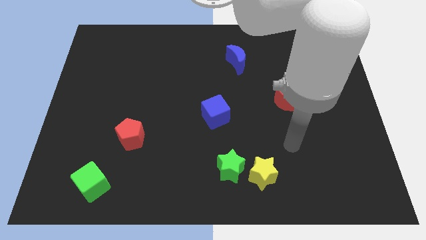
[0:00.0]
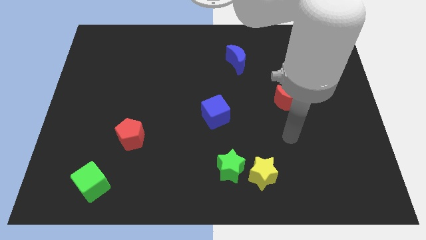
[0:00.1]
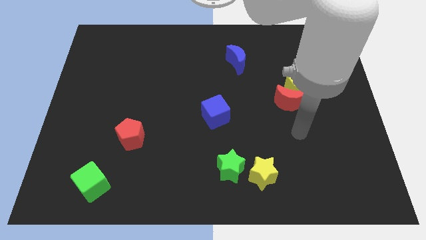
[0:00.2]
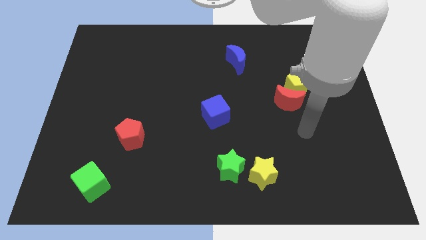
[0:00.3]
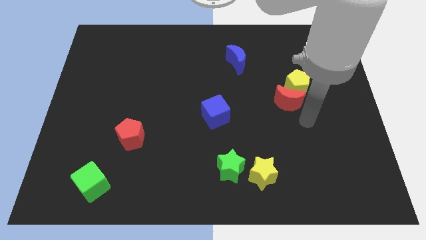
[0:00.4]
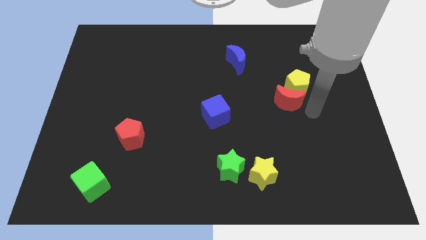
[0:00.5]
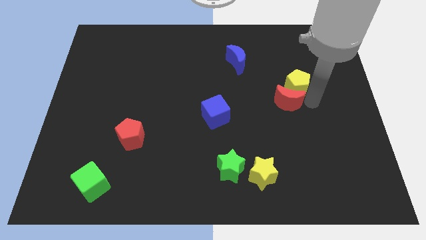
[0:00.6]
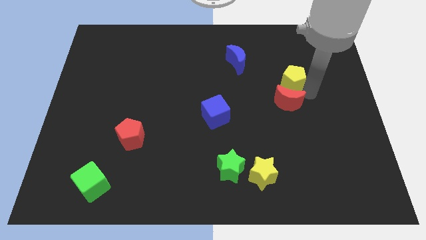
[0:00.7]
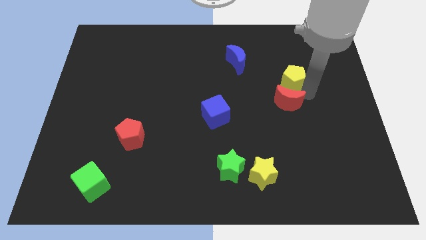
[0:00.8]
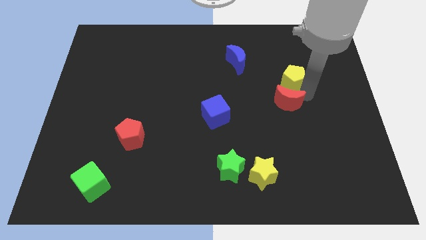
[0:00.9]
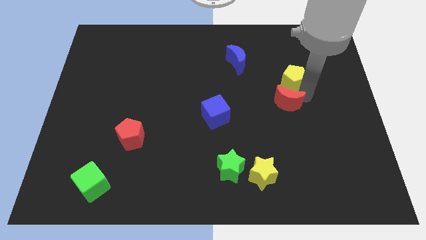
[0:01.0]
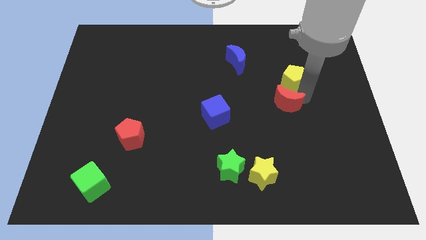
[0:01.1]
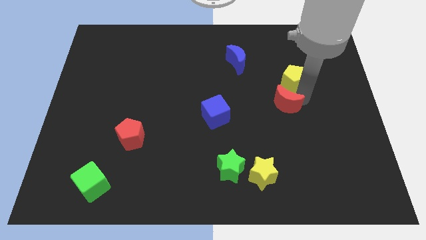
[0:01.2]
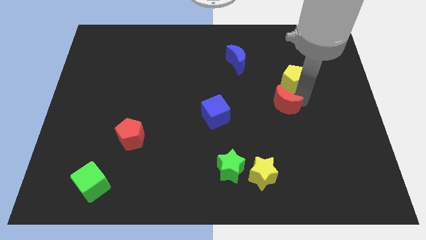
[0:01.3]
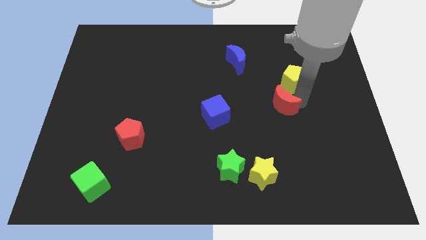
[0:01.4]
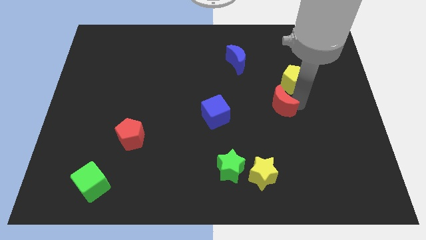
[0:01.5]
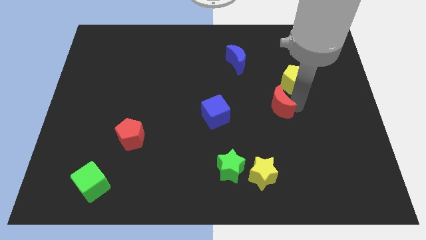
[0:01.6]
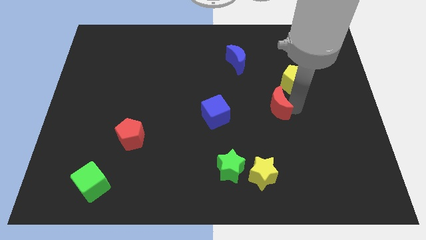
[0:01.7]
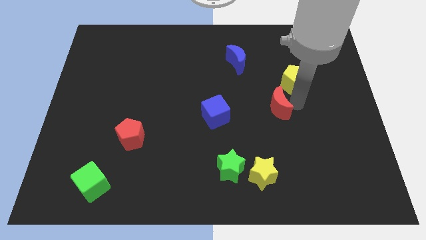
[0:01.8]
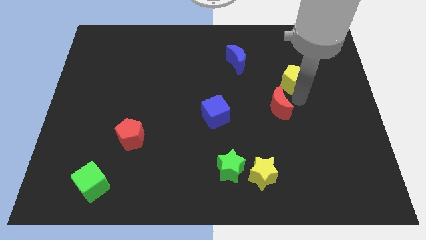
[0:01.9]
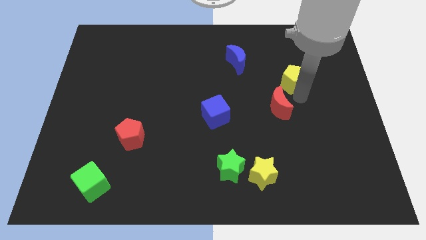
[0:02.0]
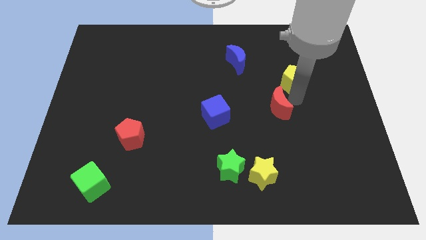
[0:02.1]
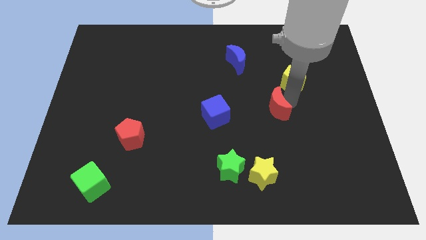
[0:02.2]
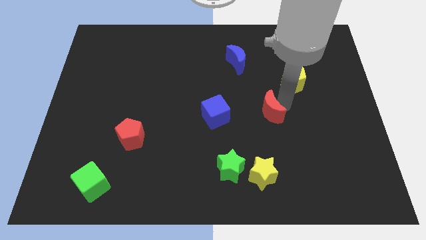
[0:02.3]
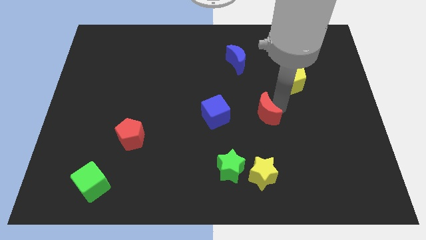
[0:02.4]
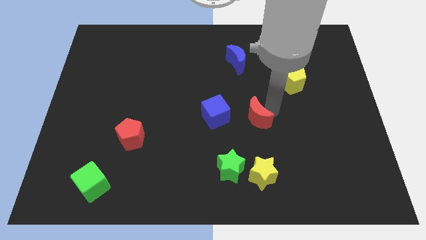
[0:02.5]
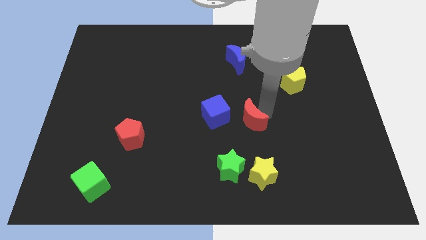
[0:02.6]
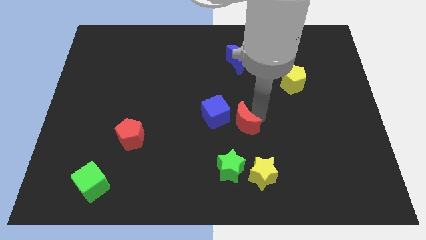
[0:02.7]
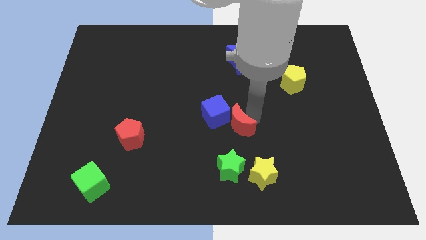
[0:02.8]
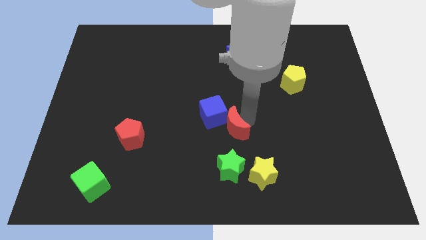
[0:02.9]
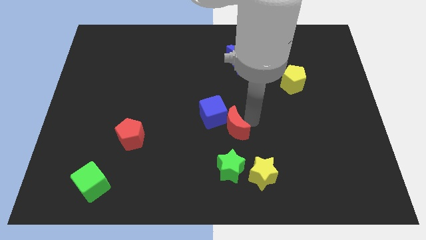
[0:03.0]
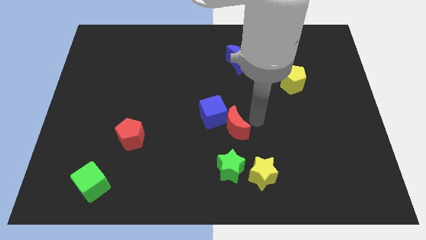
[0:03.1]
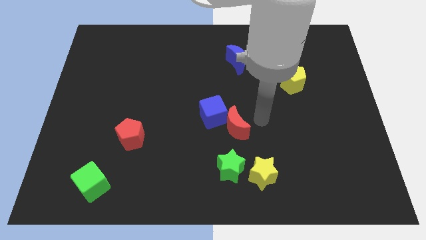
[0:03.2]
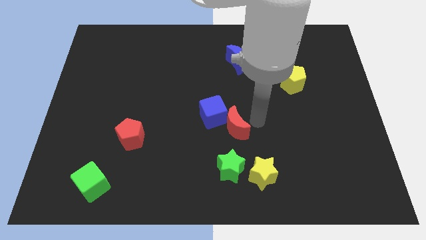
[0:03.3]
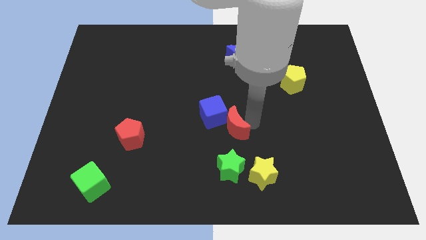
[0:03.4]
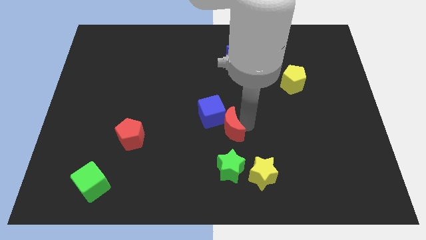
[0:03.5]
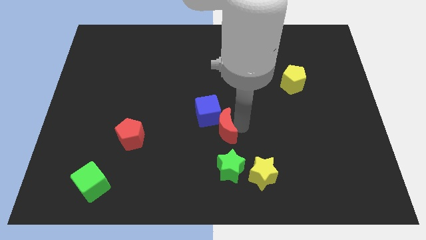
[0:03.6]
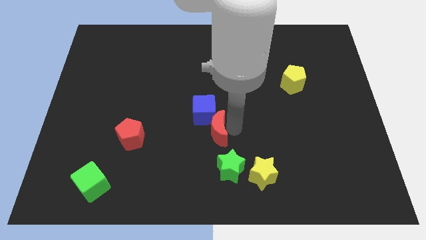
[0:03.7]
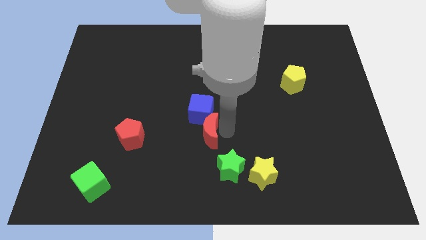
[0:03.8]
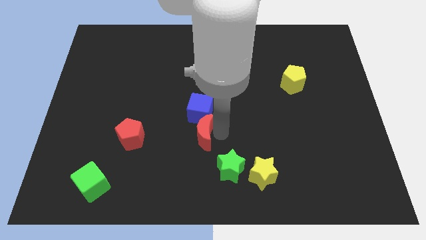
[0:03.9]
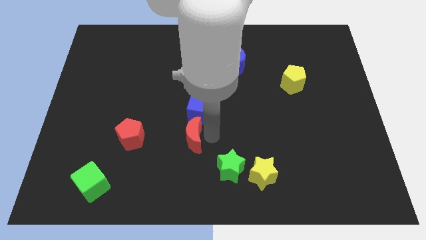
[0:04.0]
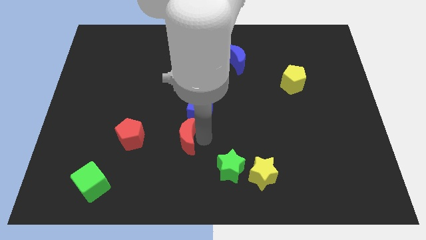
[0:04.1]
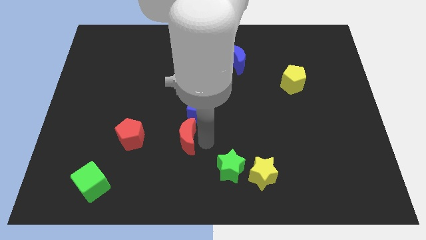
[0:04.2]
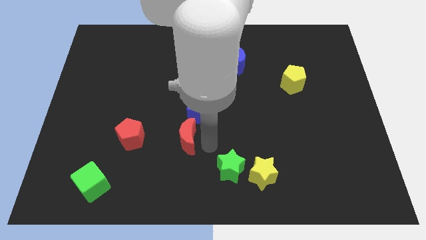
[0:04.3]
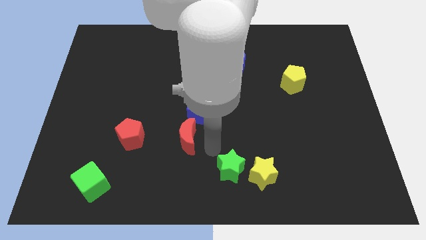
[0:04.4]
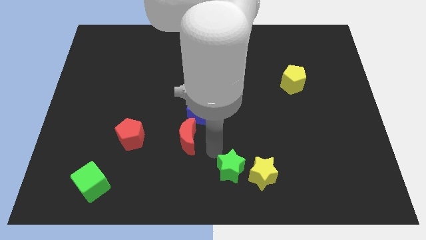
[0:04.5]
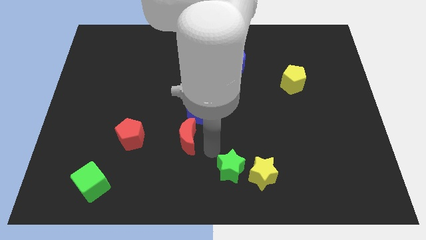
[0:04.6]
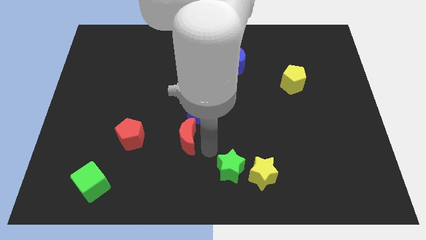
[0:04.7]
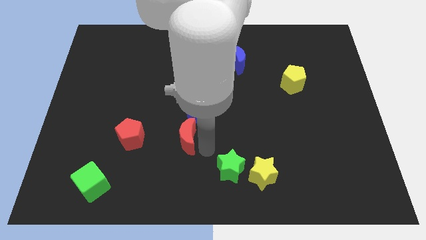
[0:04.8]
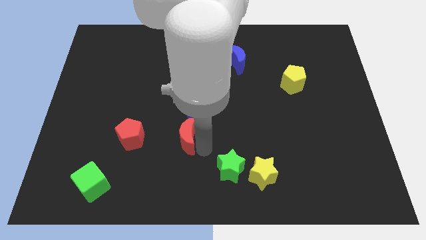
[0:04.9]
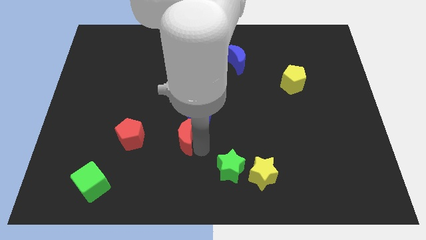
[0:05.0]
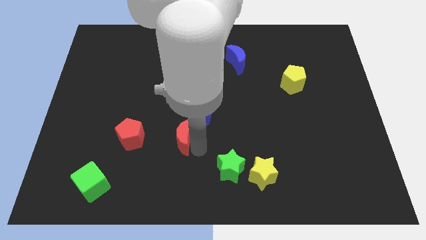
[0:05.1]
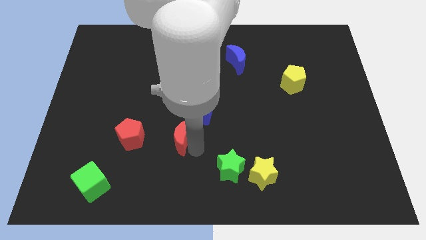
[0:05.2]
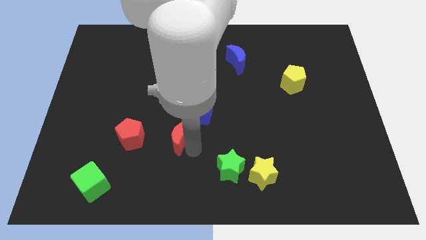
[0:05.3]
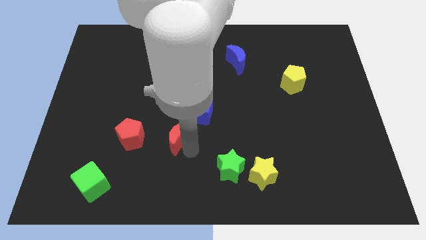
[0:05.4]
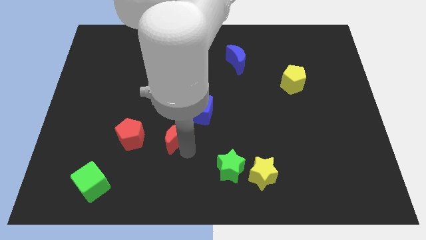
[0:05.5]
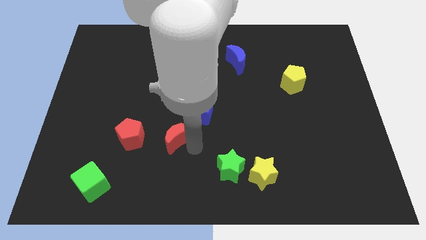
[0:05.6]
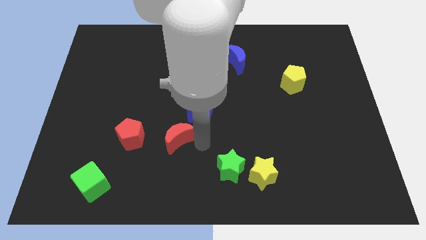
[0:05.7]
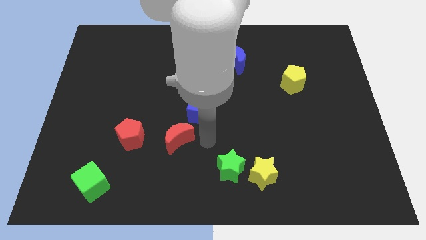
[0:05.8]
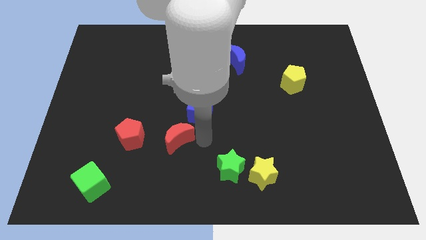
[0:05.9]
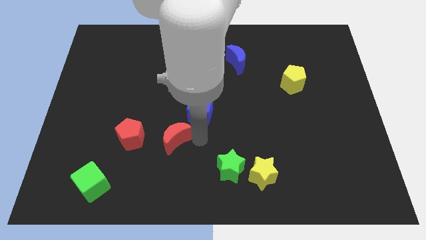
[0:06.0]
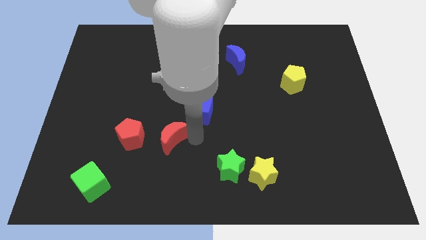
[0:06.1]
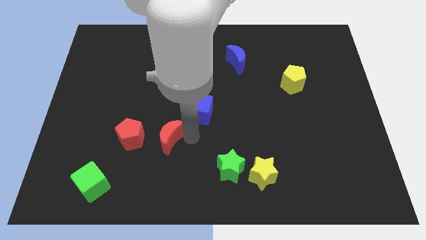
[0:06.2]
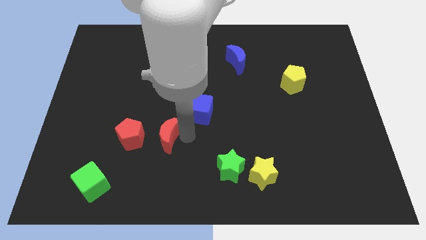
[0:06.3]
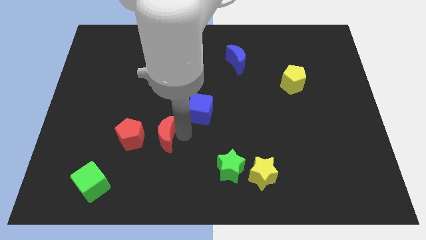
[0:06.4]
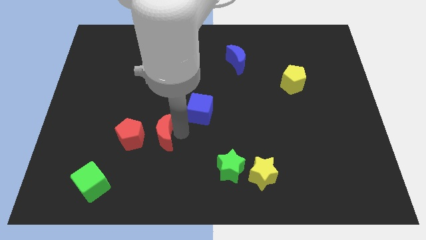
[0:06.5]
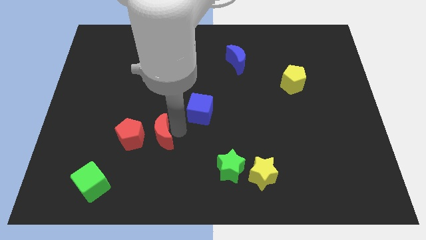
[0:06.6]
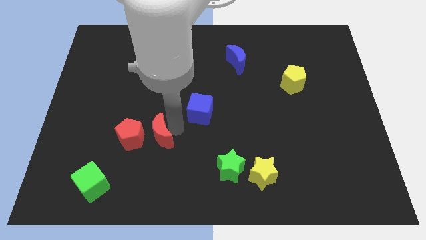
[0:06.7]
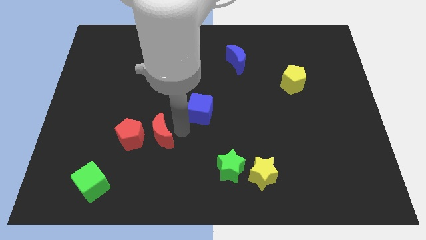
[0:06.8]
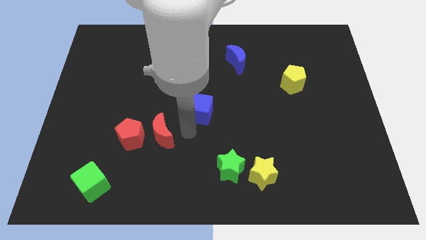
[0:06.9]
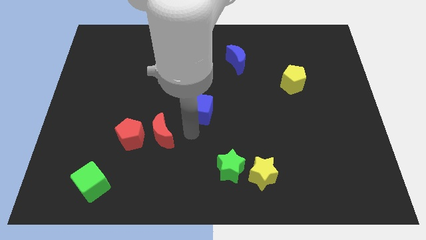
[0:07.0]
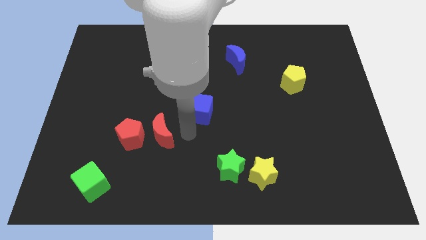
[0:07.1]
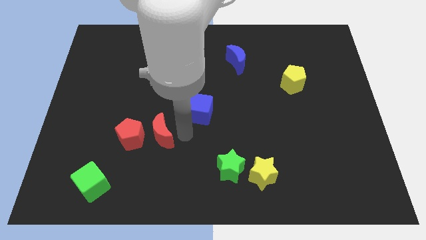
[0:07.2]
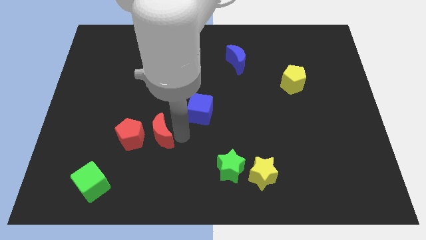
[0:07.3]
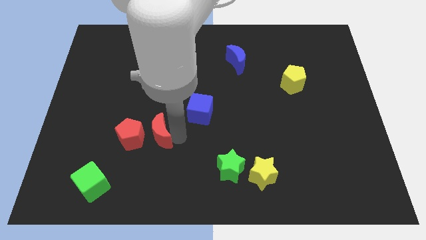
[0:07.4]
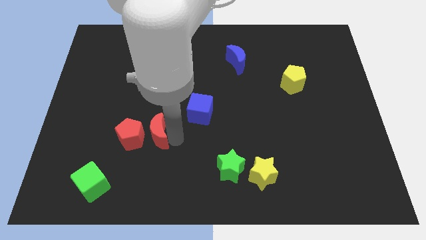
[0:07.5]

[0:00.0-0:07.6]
move the red moon towards the red pentagon
